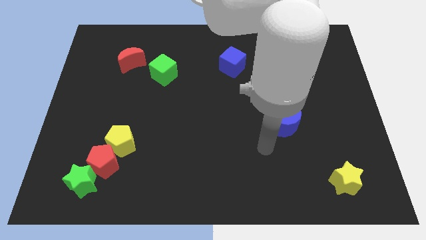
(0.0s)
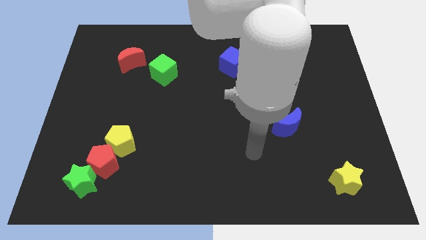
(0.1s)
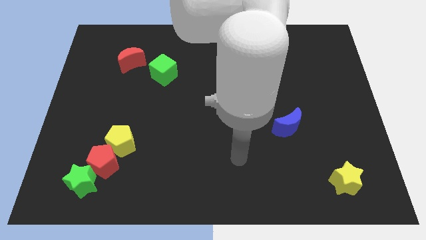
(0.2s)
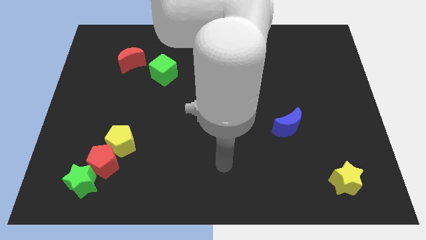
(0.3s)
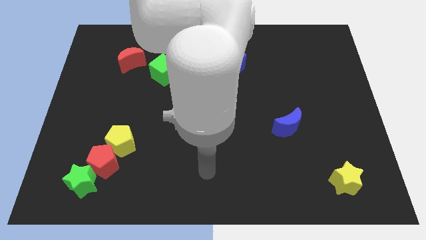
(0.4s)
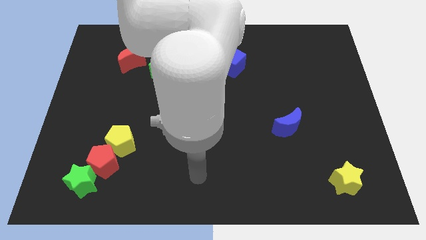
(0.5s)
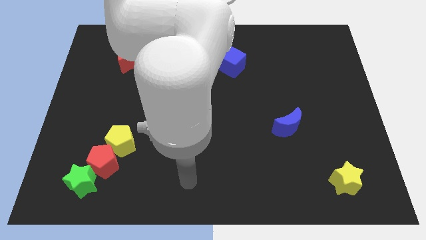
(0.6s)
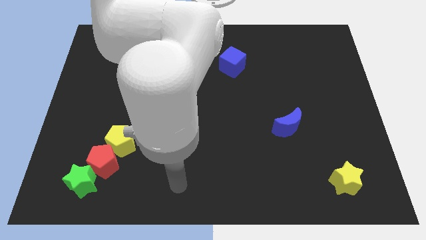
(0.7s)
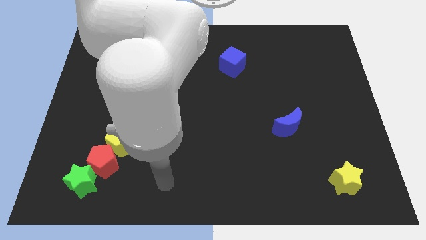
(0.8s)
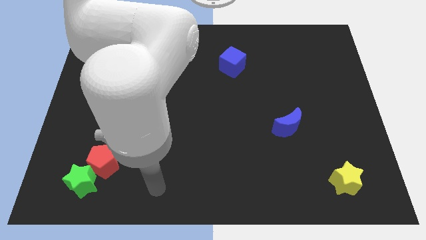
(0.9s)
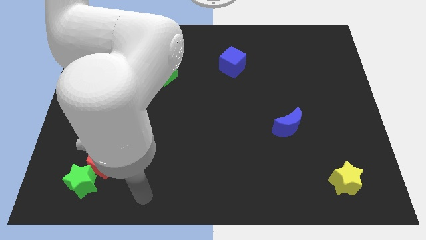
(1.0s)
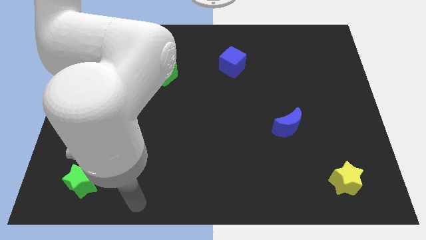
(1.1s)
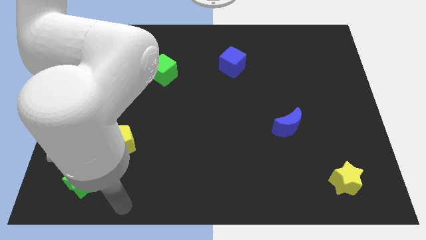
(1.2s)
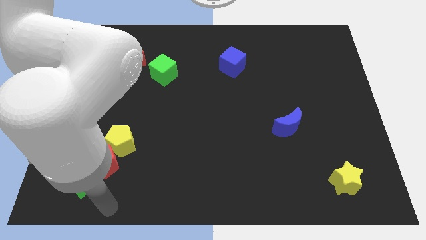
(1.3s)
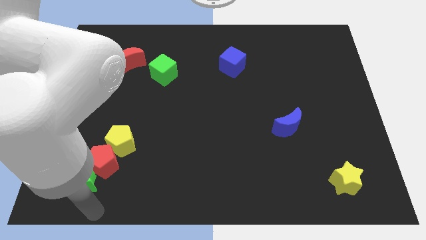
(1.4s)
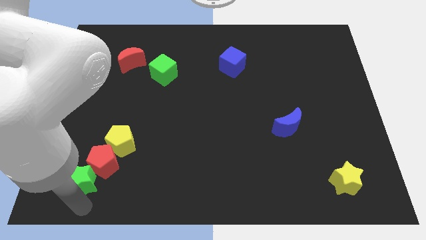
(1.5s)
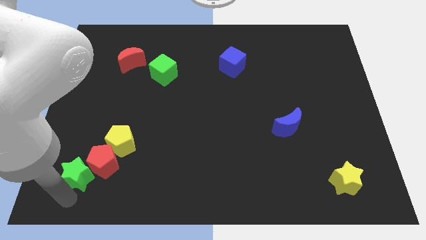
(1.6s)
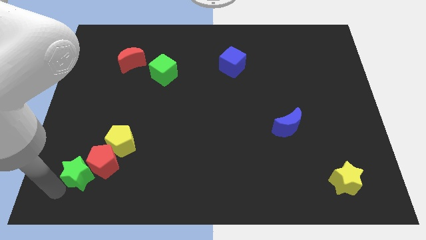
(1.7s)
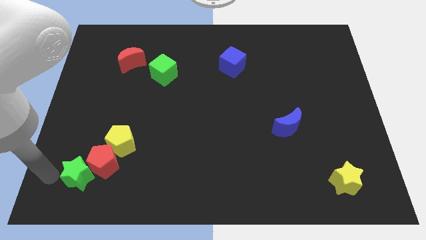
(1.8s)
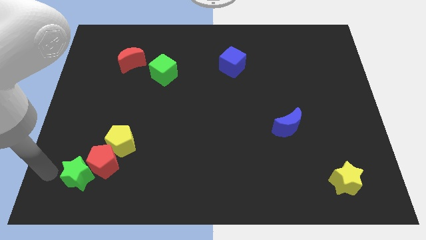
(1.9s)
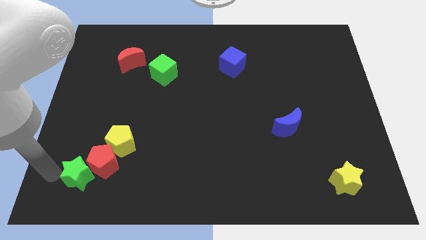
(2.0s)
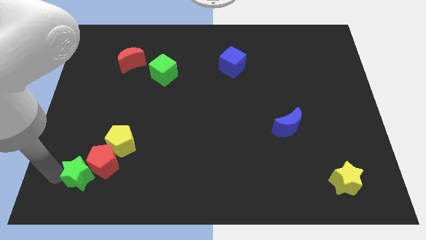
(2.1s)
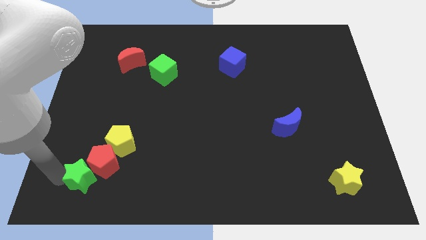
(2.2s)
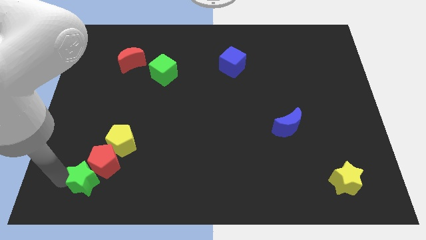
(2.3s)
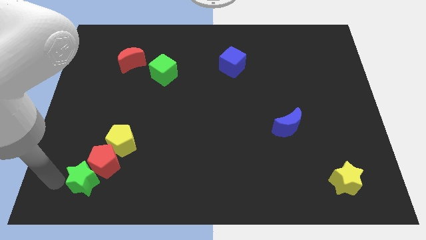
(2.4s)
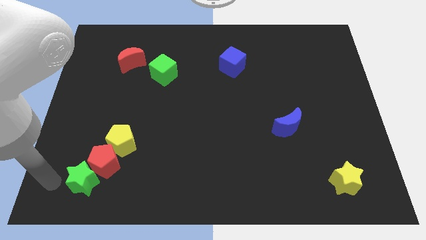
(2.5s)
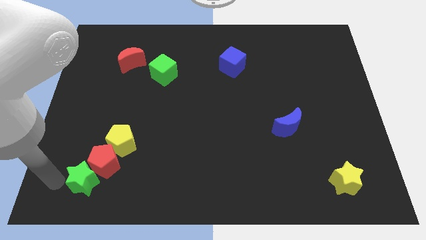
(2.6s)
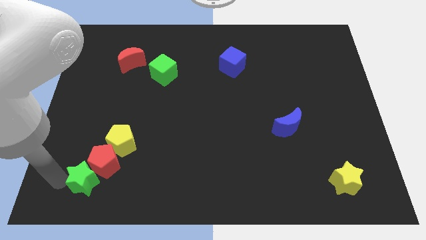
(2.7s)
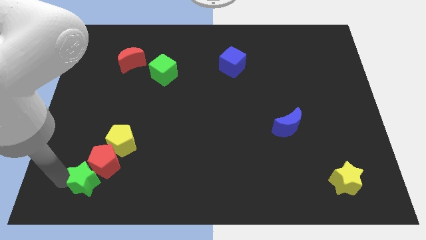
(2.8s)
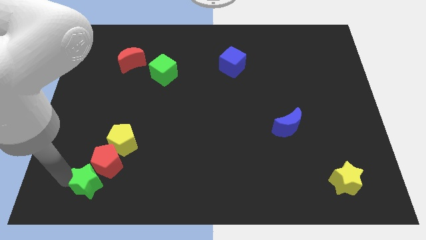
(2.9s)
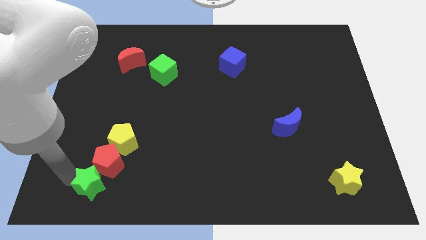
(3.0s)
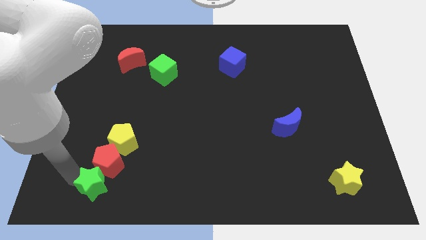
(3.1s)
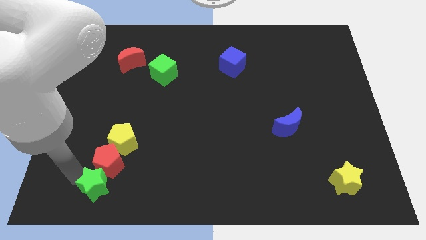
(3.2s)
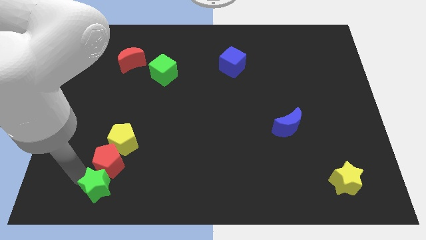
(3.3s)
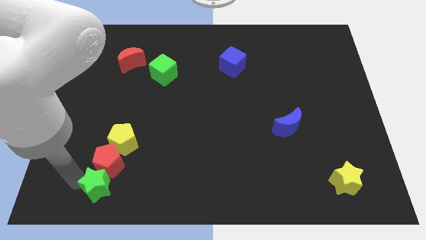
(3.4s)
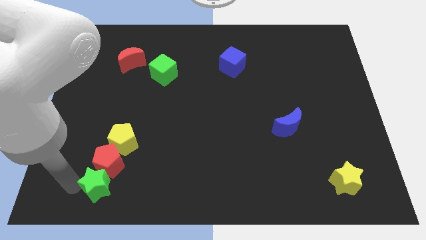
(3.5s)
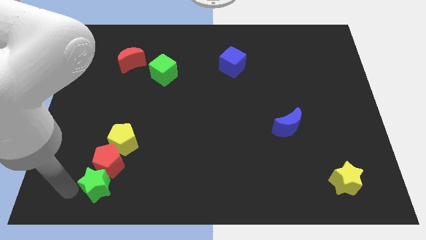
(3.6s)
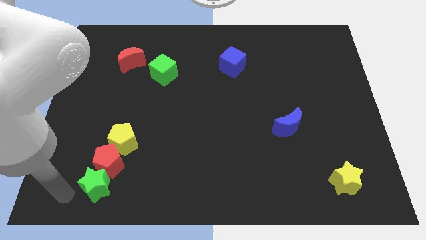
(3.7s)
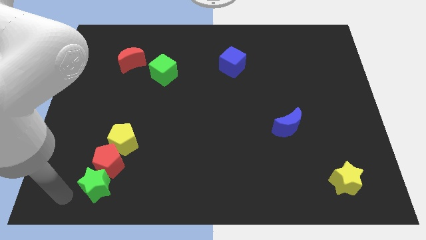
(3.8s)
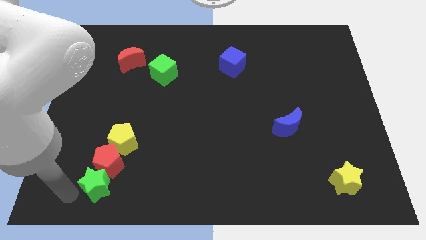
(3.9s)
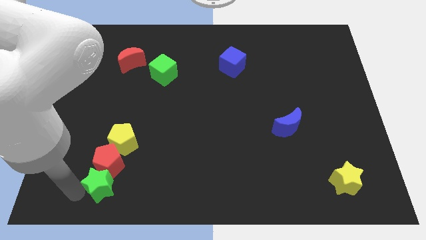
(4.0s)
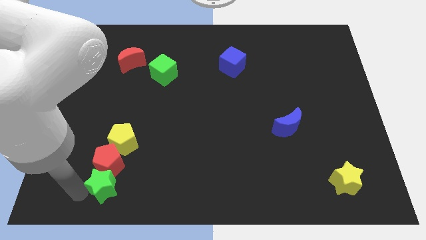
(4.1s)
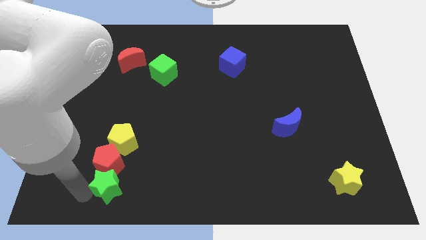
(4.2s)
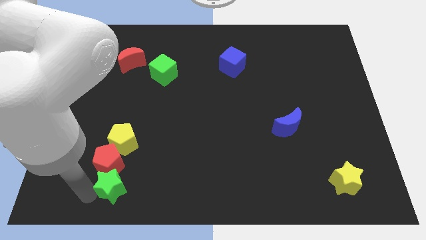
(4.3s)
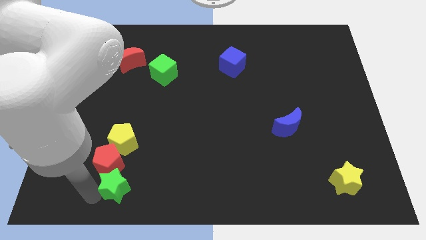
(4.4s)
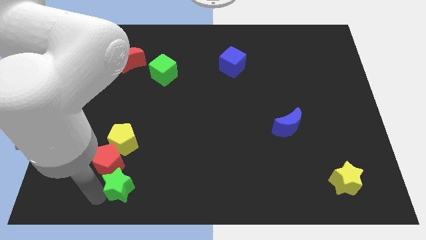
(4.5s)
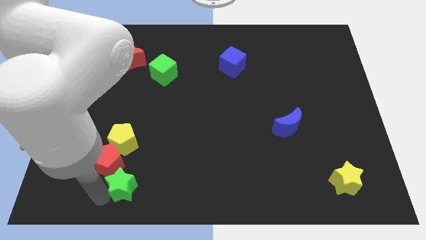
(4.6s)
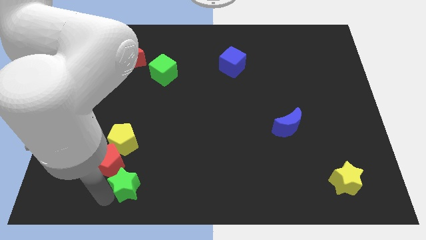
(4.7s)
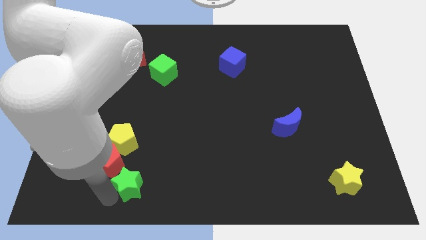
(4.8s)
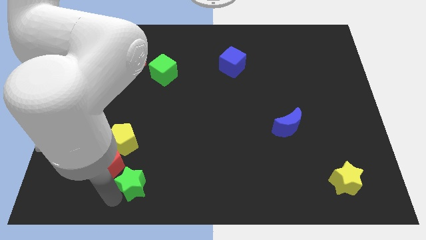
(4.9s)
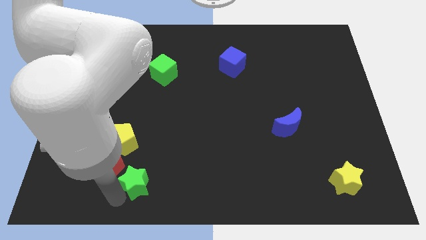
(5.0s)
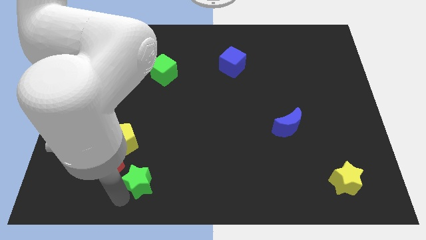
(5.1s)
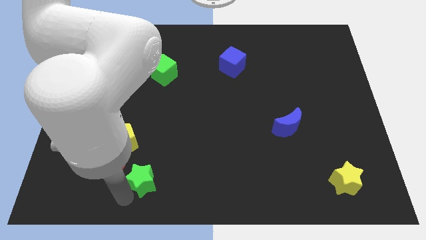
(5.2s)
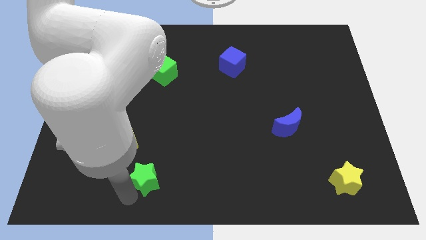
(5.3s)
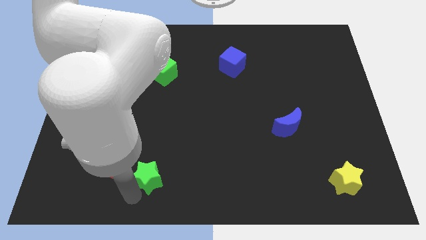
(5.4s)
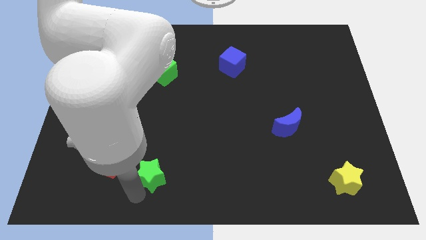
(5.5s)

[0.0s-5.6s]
move the green star diagonally up and right slightly

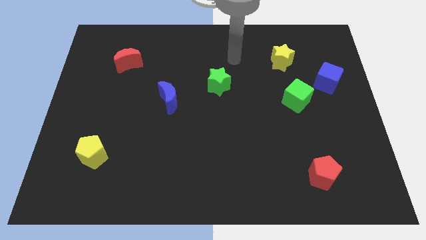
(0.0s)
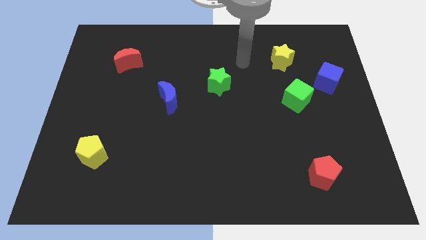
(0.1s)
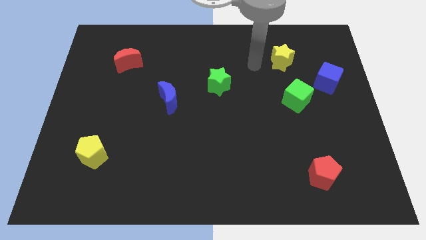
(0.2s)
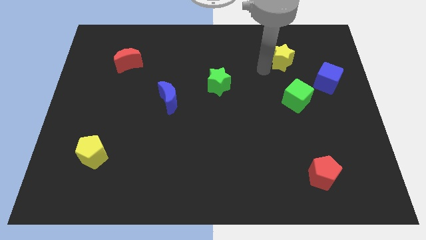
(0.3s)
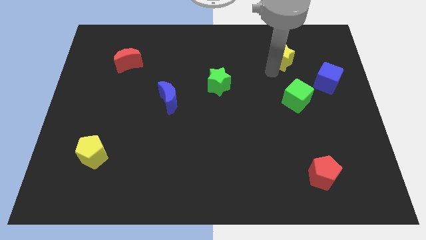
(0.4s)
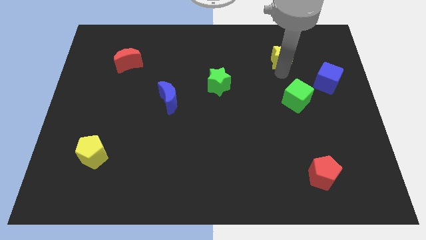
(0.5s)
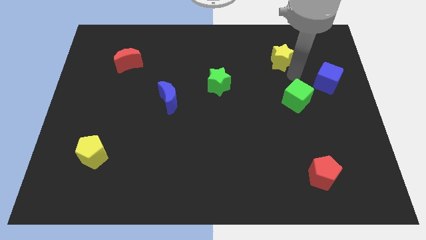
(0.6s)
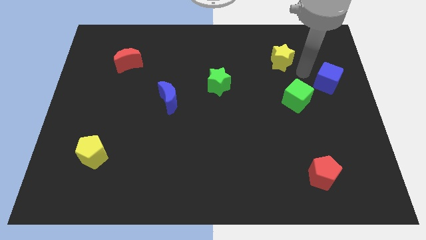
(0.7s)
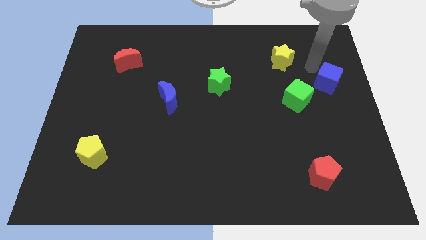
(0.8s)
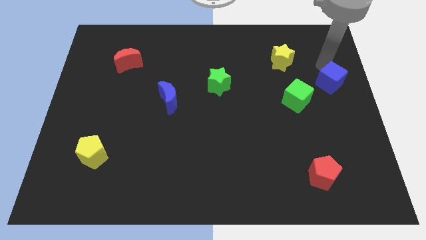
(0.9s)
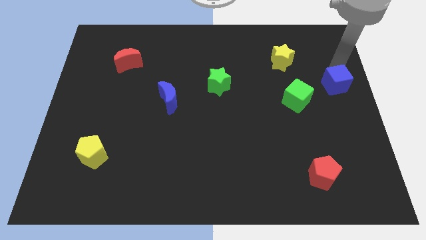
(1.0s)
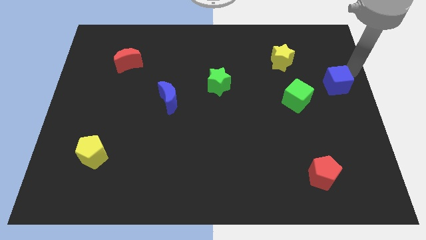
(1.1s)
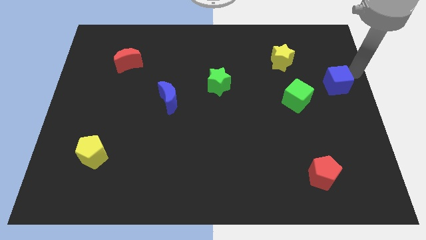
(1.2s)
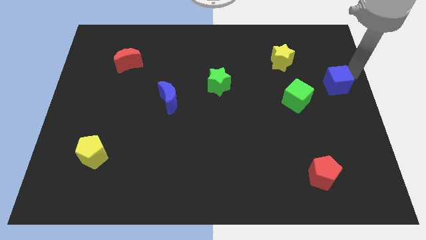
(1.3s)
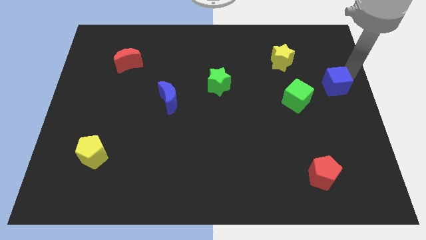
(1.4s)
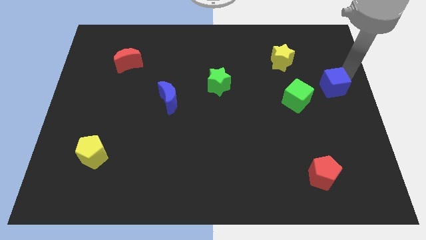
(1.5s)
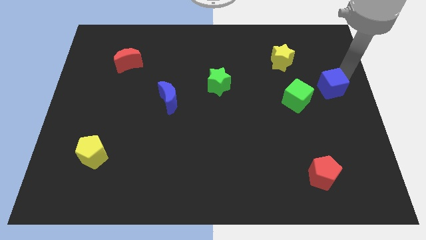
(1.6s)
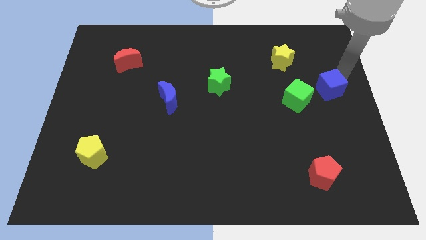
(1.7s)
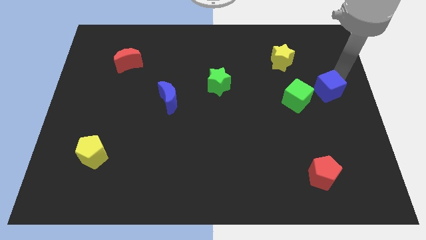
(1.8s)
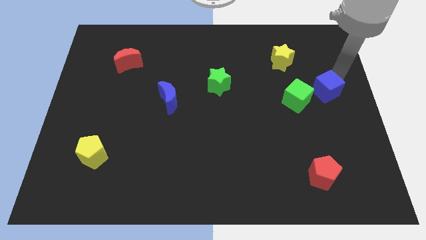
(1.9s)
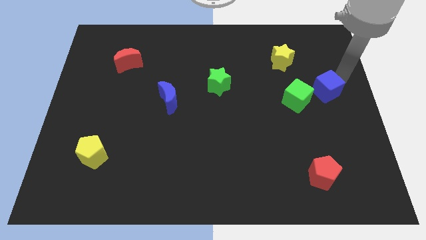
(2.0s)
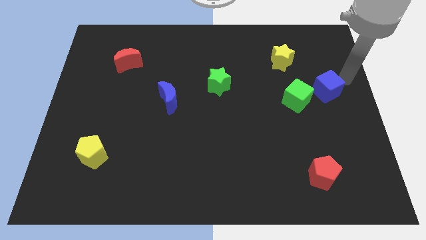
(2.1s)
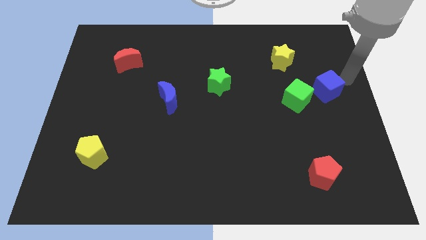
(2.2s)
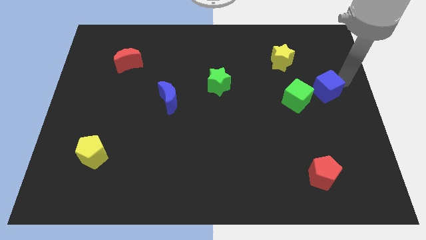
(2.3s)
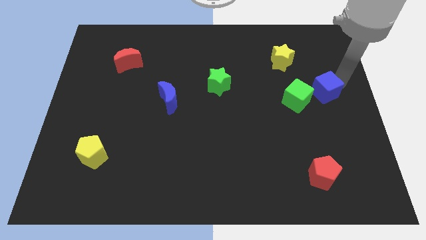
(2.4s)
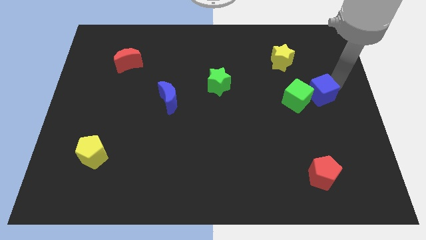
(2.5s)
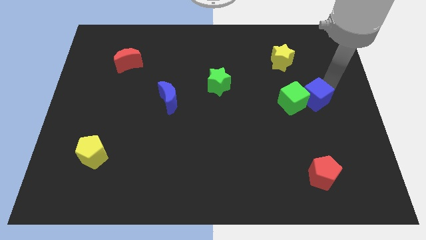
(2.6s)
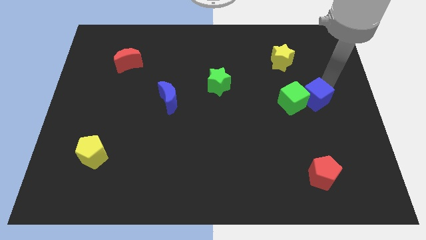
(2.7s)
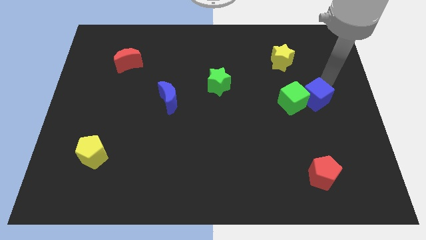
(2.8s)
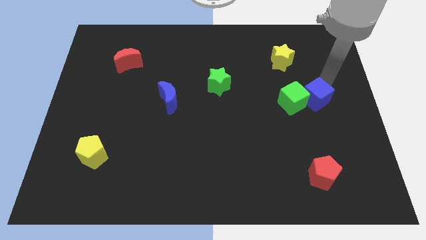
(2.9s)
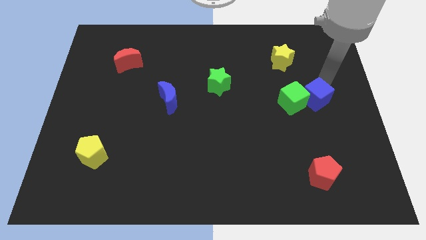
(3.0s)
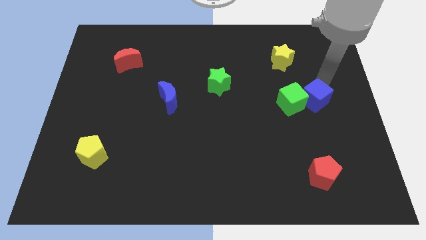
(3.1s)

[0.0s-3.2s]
move the blue cube diagonally downwards and to the left a bit
